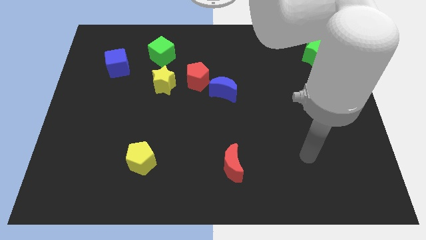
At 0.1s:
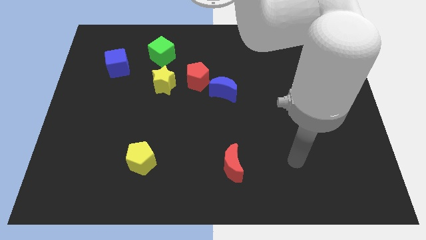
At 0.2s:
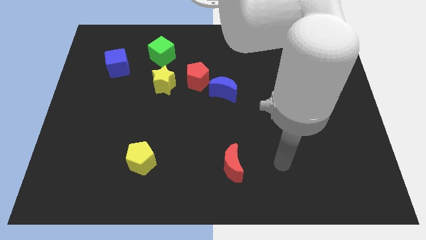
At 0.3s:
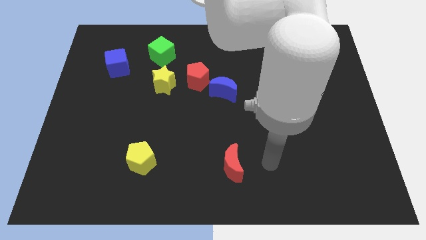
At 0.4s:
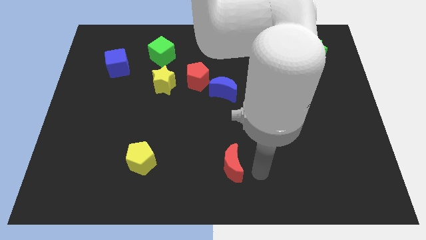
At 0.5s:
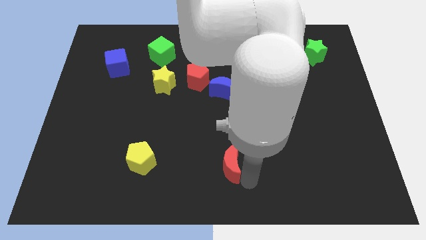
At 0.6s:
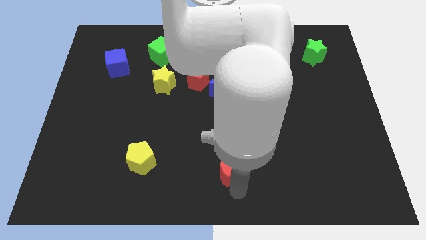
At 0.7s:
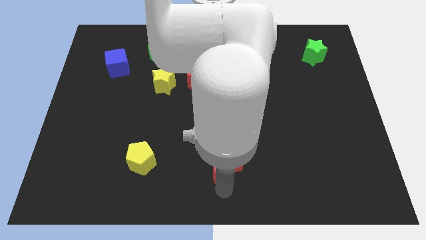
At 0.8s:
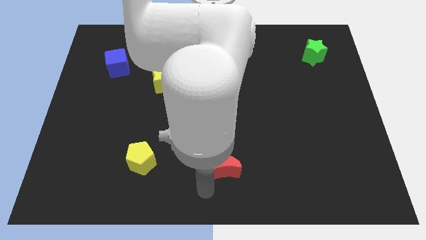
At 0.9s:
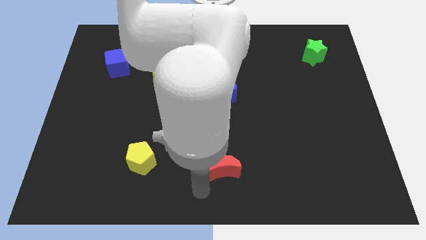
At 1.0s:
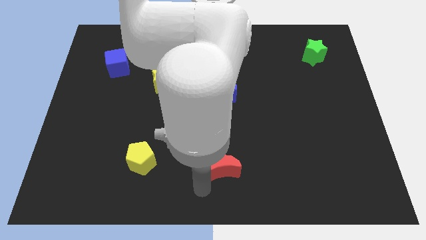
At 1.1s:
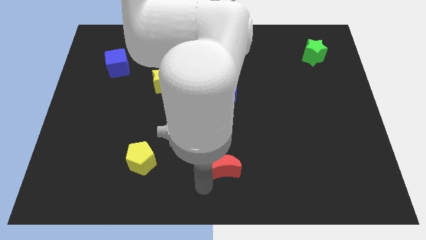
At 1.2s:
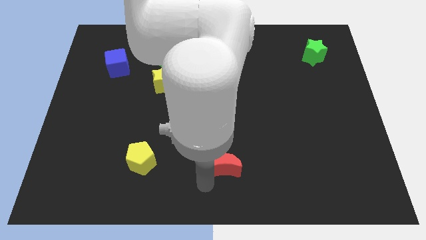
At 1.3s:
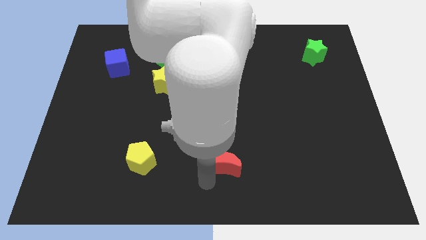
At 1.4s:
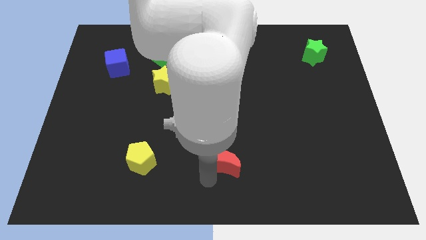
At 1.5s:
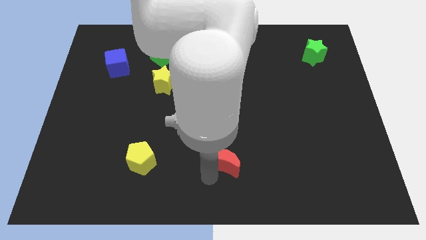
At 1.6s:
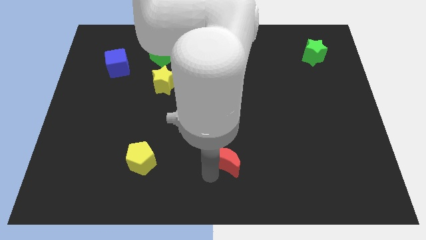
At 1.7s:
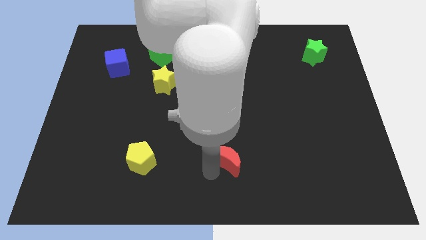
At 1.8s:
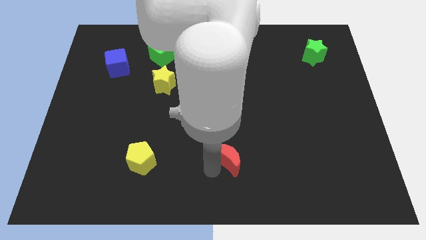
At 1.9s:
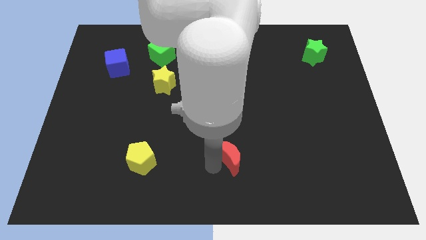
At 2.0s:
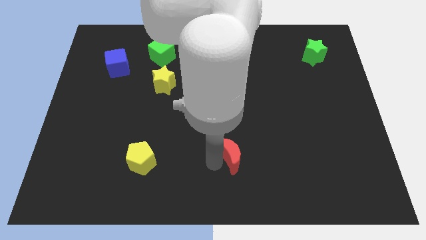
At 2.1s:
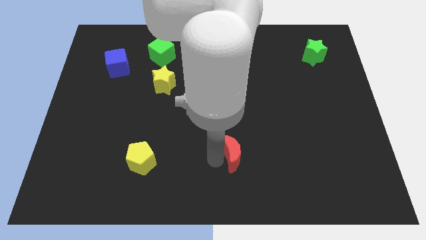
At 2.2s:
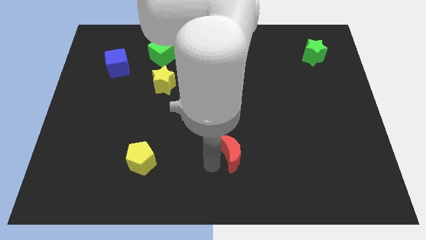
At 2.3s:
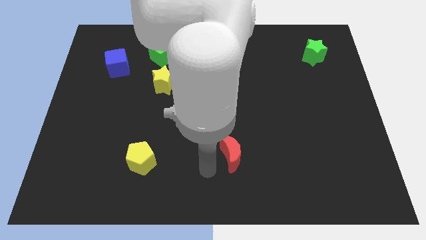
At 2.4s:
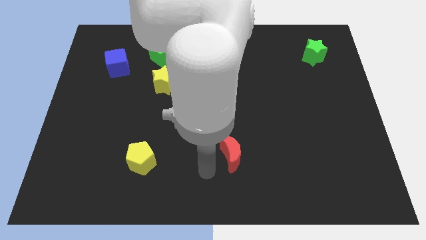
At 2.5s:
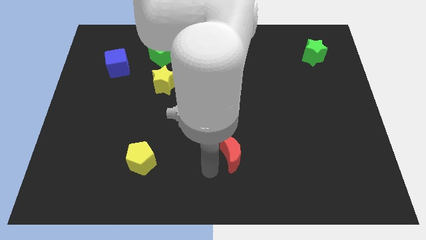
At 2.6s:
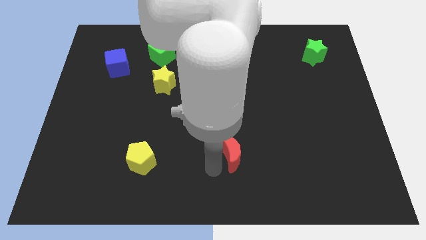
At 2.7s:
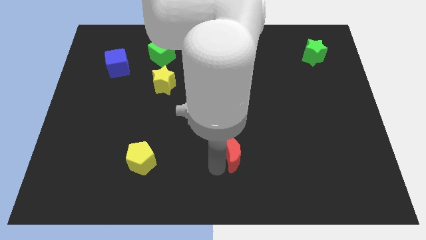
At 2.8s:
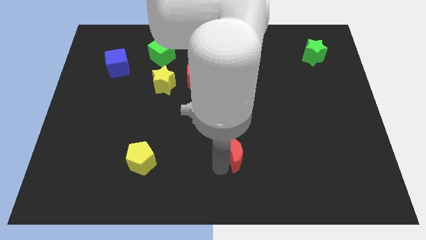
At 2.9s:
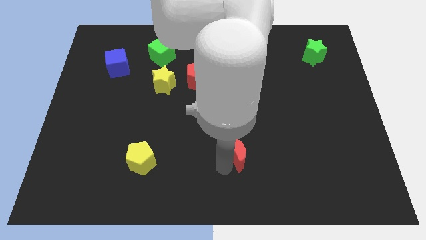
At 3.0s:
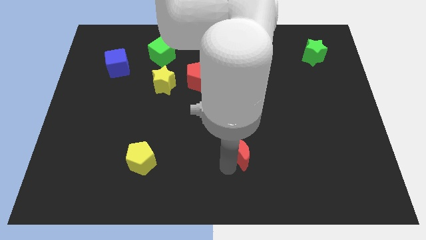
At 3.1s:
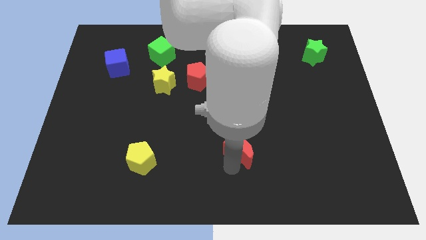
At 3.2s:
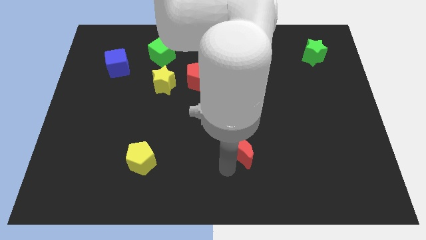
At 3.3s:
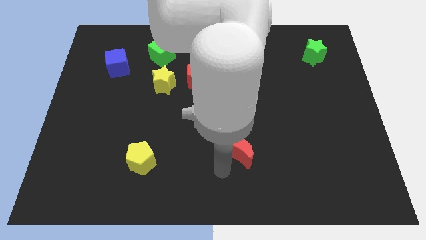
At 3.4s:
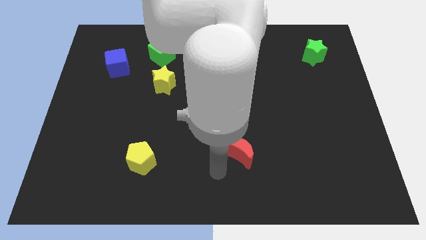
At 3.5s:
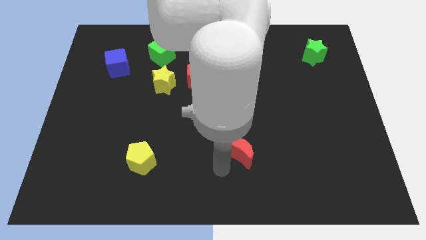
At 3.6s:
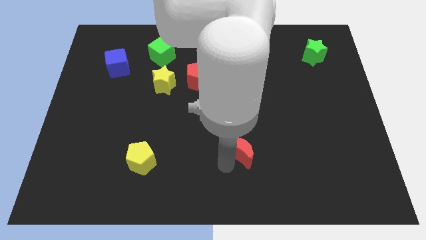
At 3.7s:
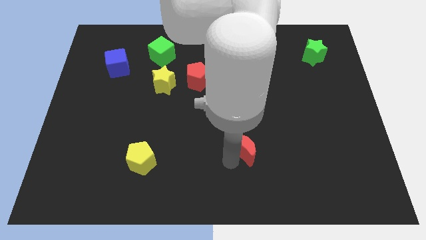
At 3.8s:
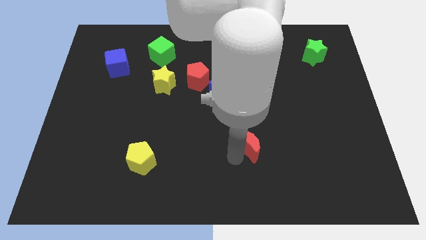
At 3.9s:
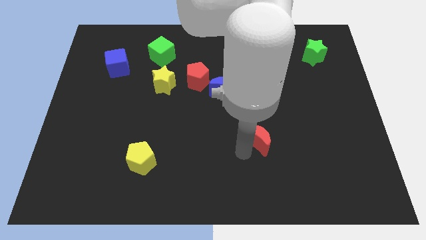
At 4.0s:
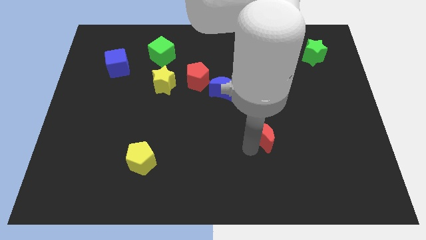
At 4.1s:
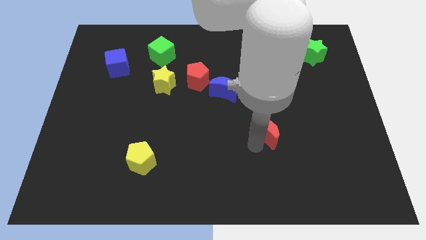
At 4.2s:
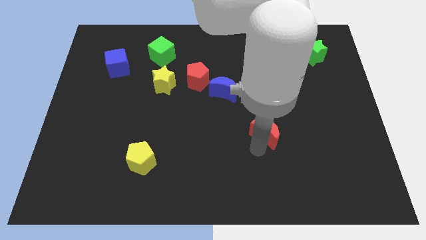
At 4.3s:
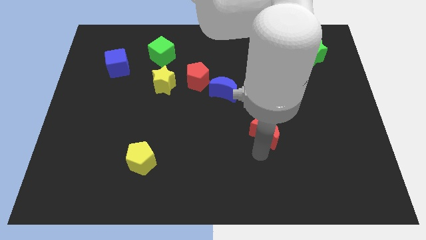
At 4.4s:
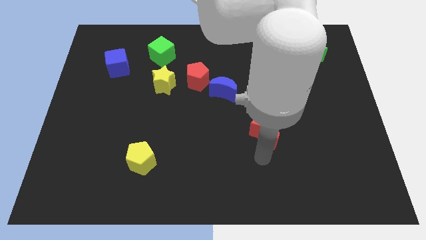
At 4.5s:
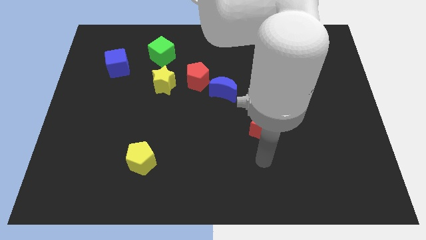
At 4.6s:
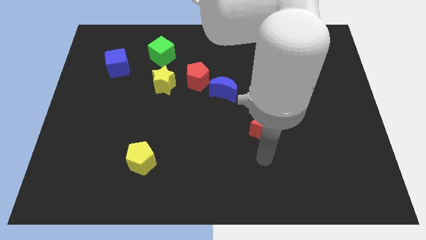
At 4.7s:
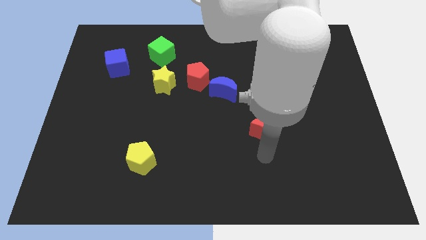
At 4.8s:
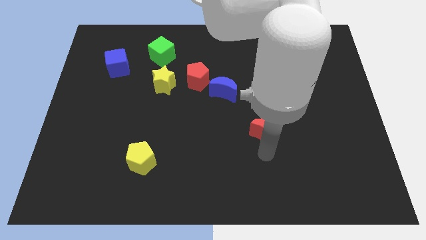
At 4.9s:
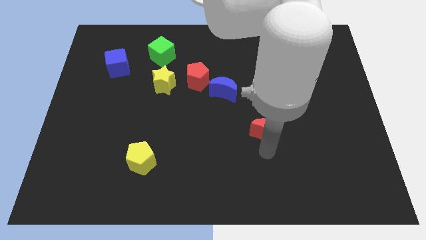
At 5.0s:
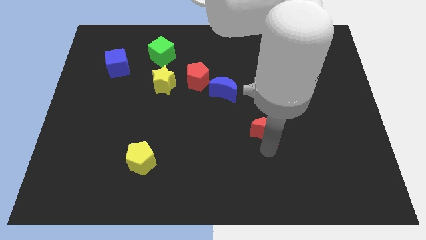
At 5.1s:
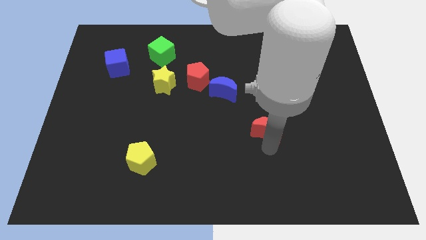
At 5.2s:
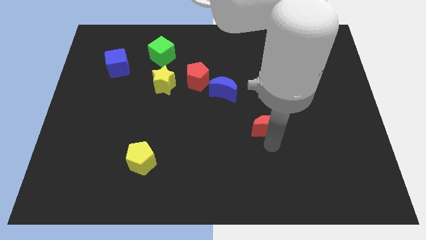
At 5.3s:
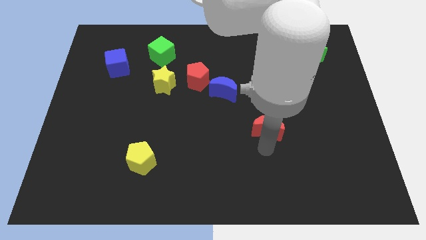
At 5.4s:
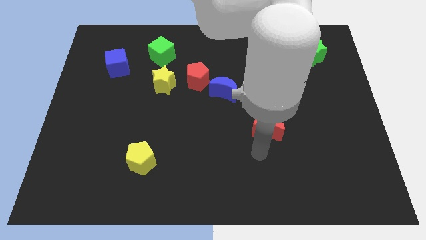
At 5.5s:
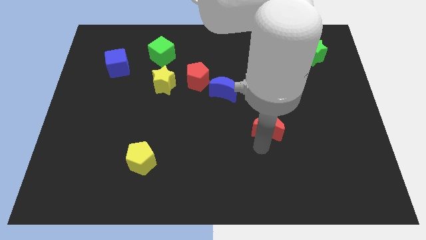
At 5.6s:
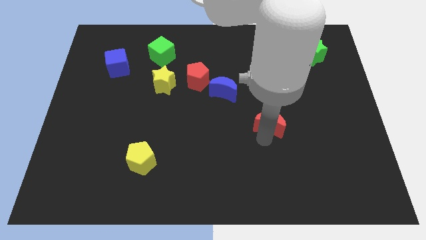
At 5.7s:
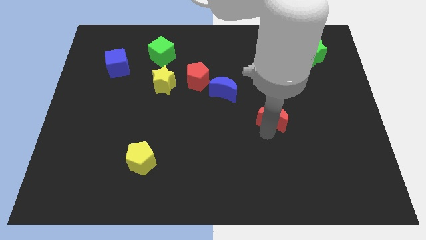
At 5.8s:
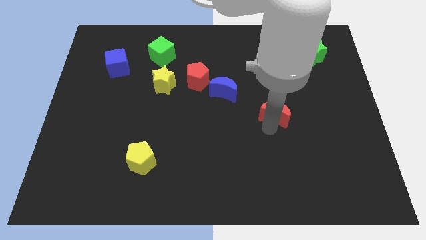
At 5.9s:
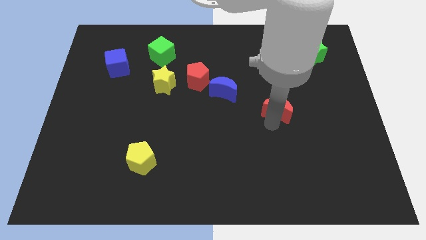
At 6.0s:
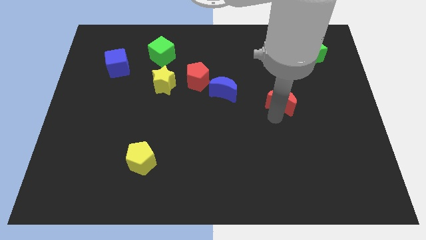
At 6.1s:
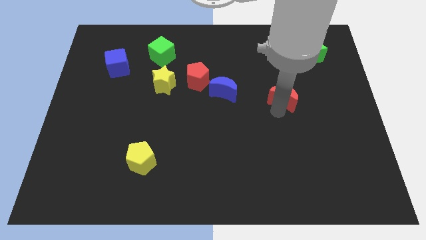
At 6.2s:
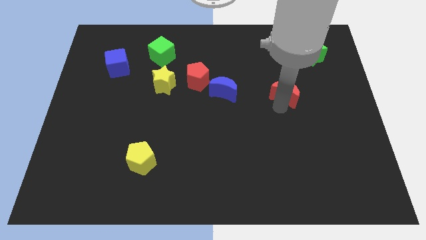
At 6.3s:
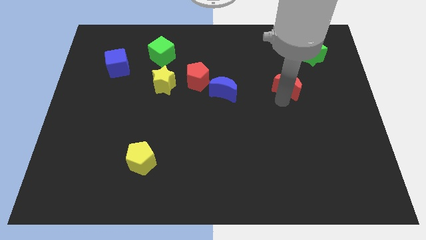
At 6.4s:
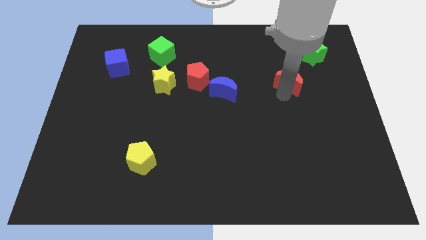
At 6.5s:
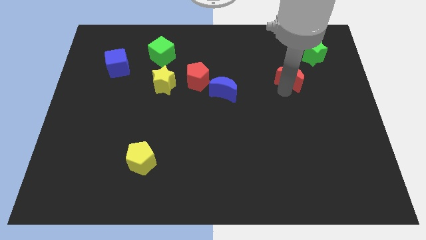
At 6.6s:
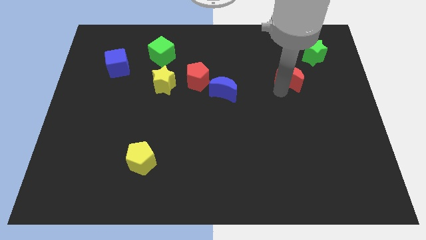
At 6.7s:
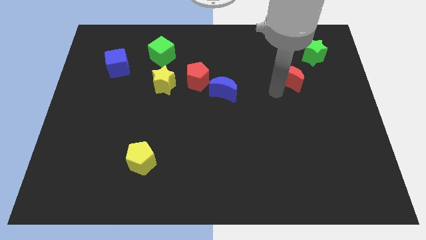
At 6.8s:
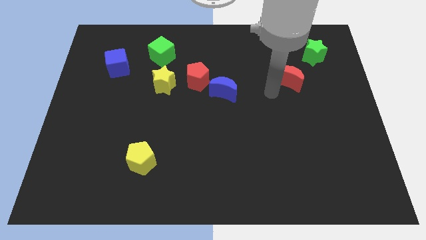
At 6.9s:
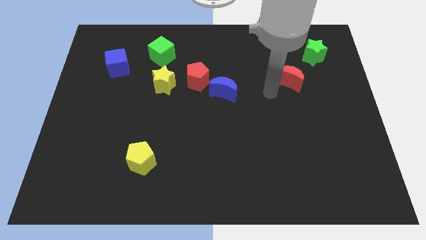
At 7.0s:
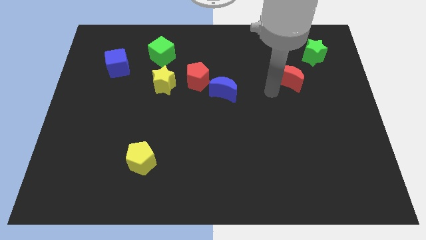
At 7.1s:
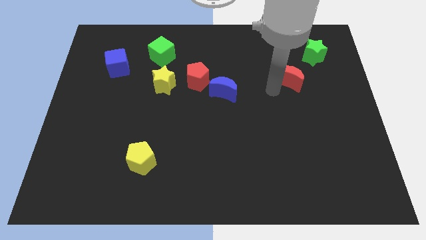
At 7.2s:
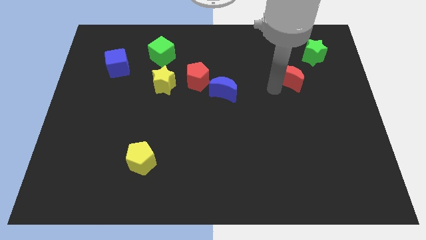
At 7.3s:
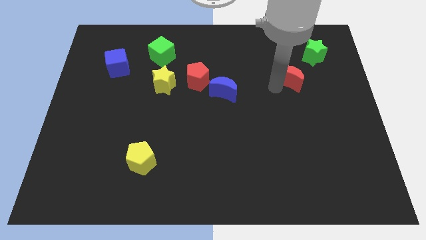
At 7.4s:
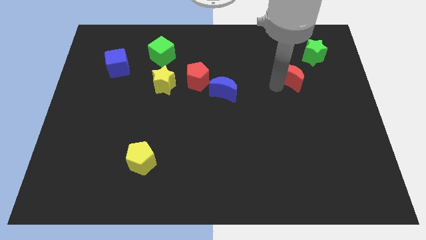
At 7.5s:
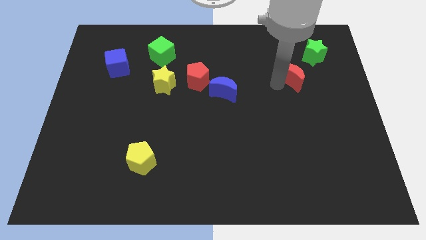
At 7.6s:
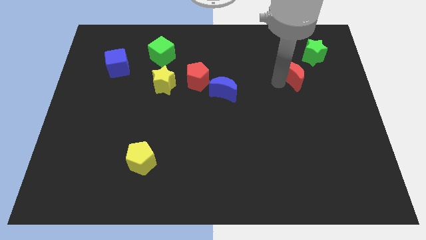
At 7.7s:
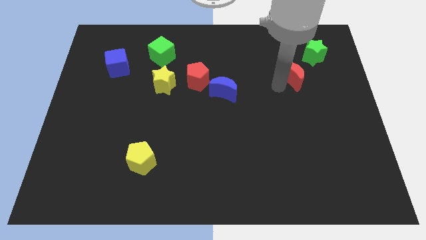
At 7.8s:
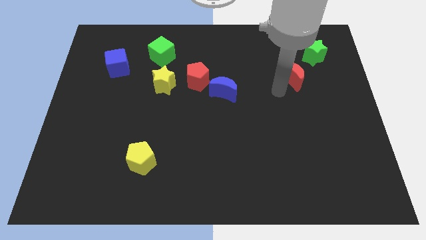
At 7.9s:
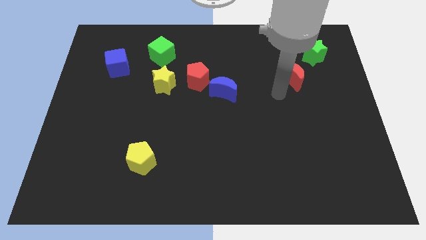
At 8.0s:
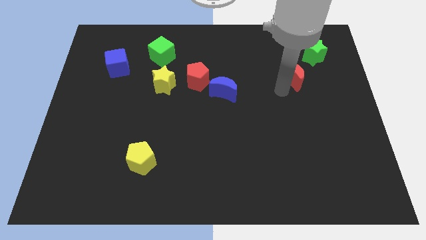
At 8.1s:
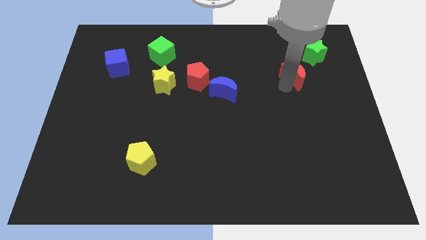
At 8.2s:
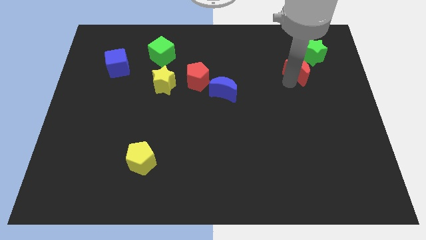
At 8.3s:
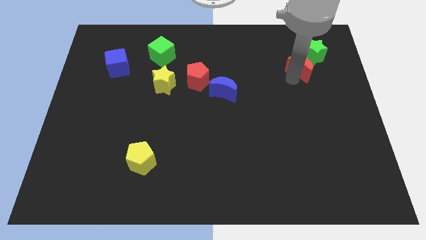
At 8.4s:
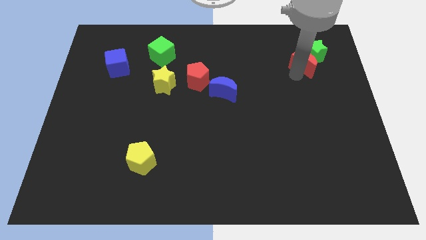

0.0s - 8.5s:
slide the red moon next to the green star
